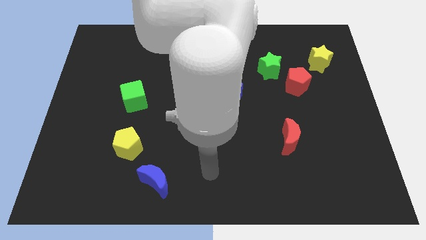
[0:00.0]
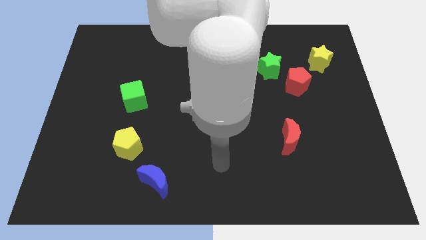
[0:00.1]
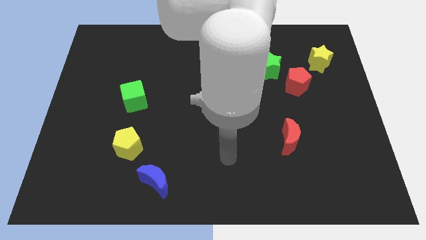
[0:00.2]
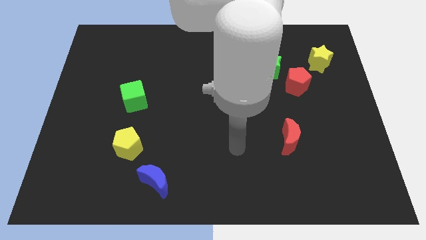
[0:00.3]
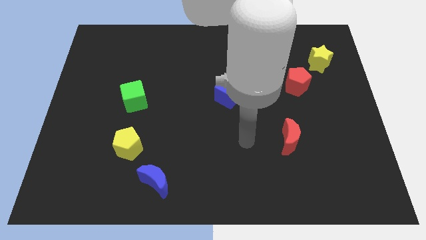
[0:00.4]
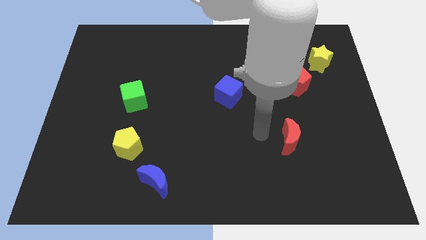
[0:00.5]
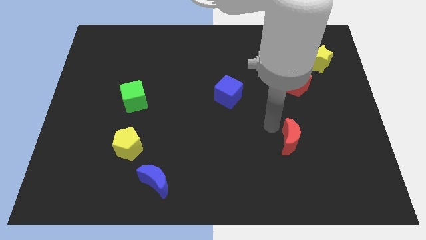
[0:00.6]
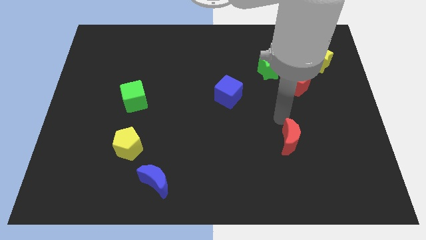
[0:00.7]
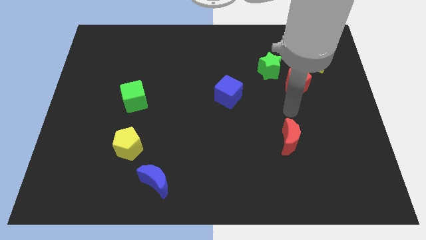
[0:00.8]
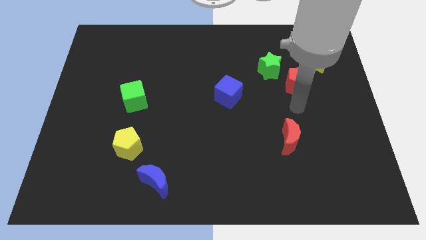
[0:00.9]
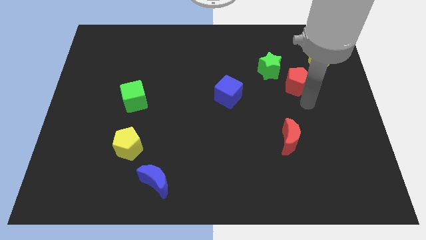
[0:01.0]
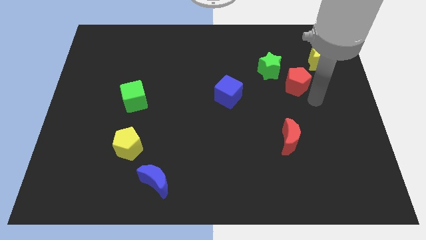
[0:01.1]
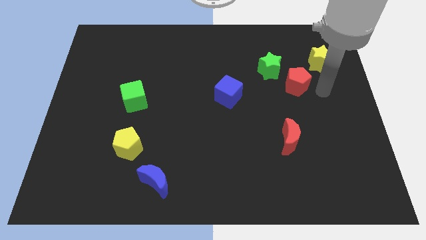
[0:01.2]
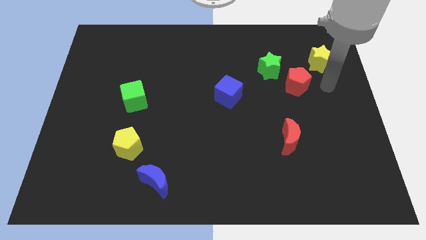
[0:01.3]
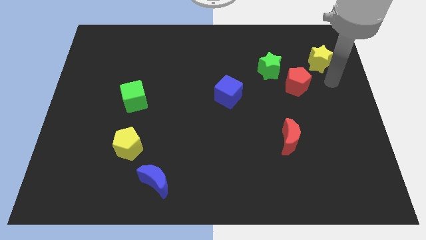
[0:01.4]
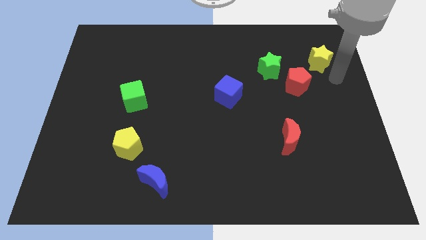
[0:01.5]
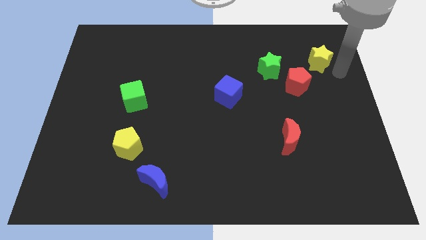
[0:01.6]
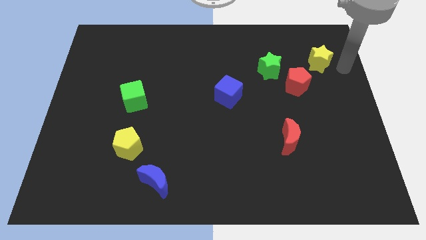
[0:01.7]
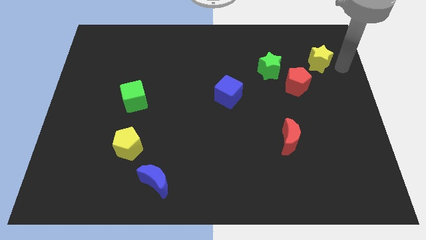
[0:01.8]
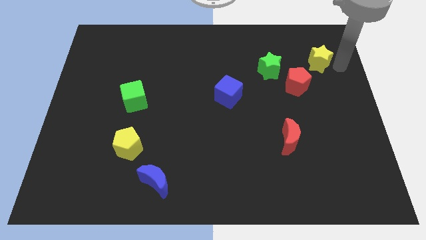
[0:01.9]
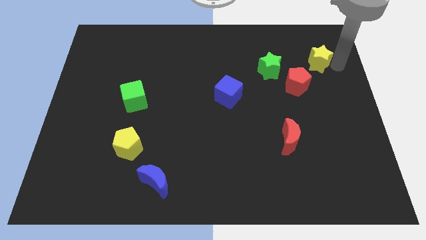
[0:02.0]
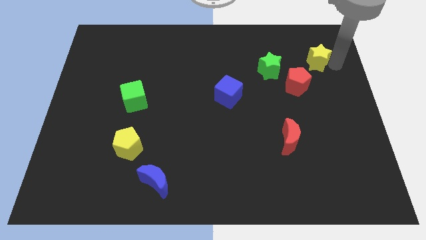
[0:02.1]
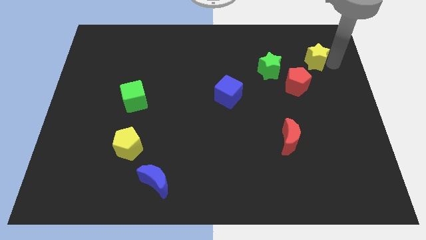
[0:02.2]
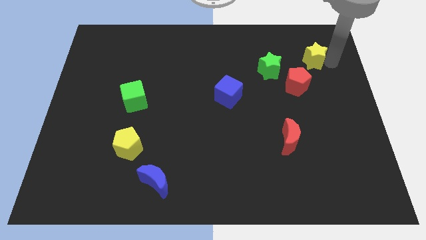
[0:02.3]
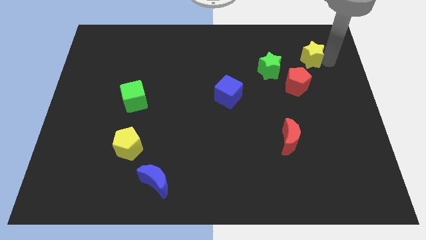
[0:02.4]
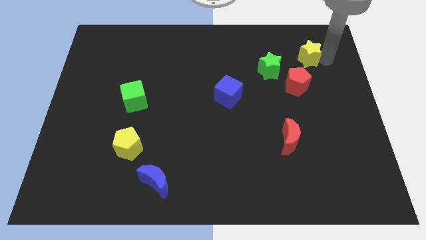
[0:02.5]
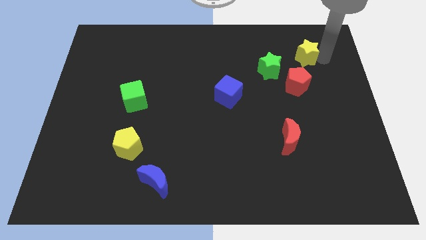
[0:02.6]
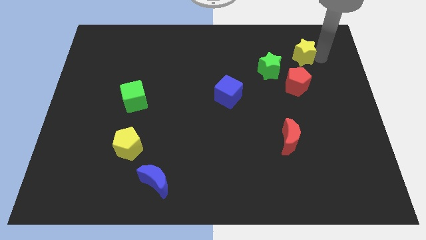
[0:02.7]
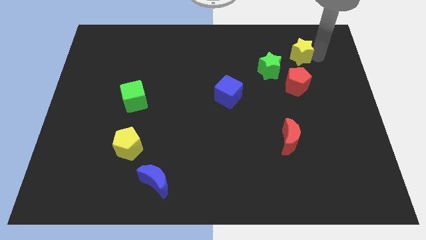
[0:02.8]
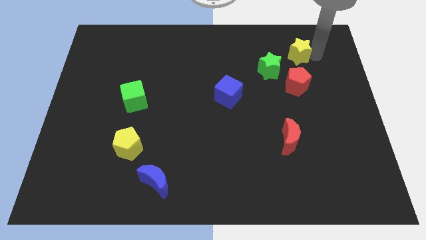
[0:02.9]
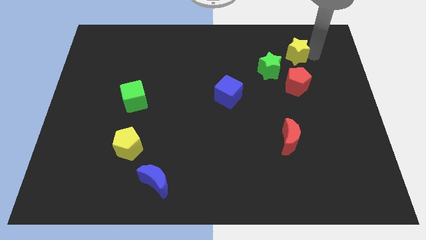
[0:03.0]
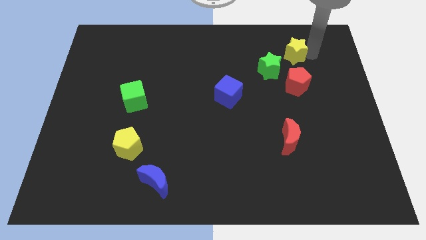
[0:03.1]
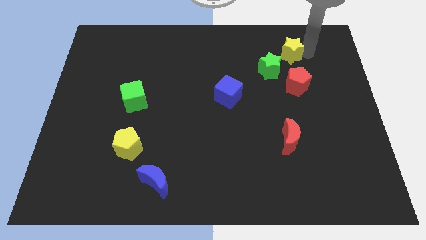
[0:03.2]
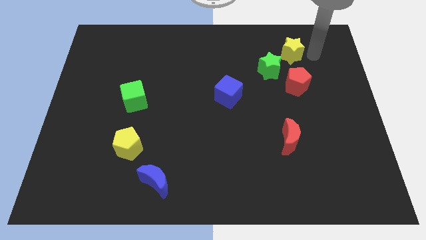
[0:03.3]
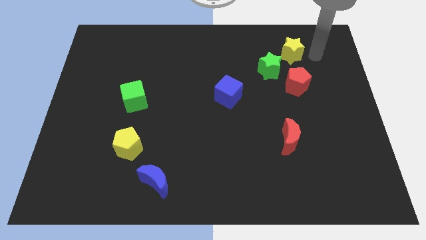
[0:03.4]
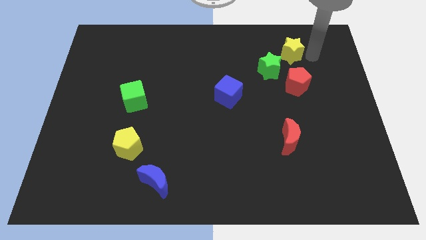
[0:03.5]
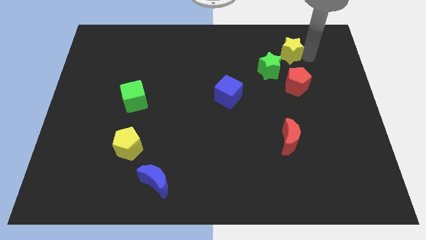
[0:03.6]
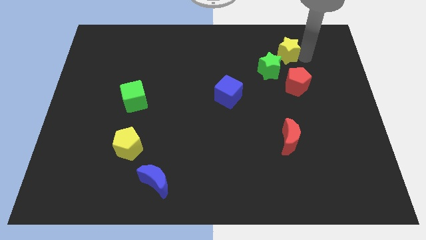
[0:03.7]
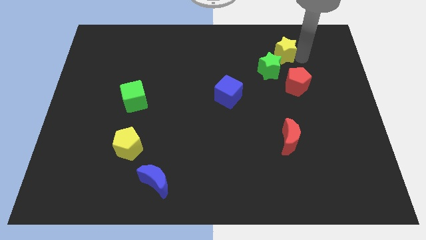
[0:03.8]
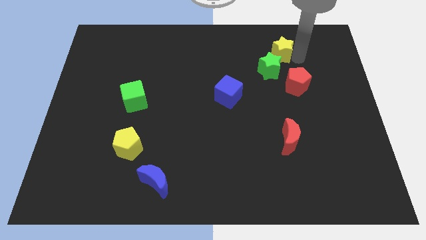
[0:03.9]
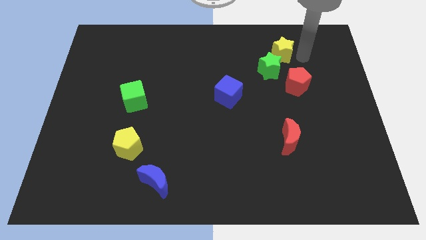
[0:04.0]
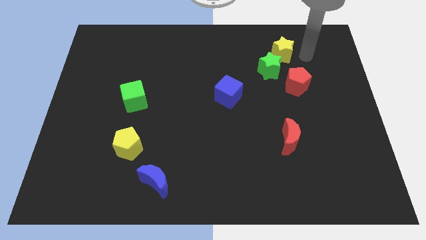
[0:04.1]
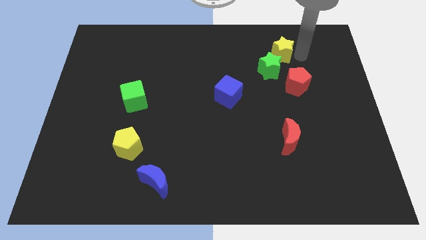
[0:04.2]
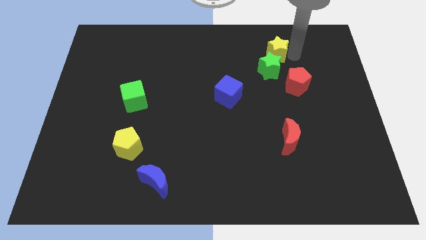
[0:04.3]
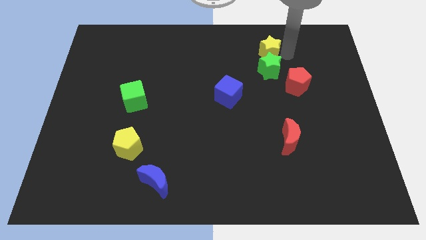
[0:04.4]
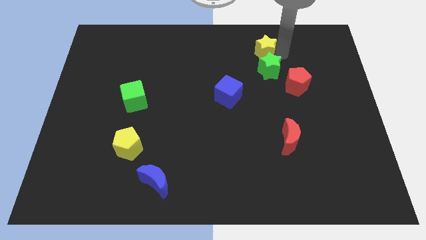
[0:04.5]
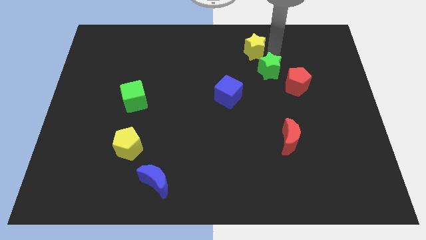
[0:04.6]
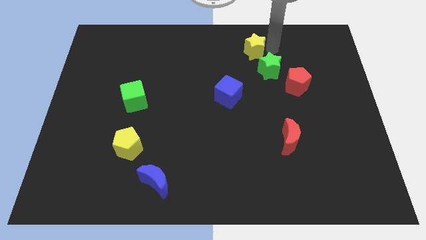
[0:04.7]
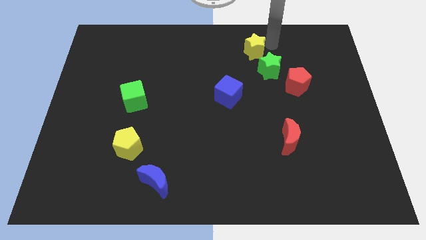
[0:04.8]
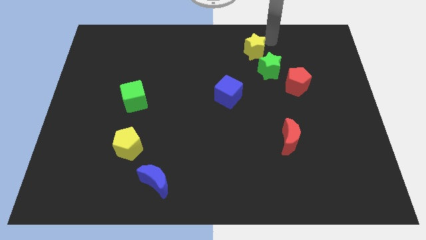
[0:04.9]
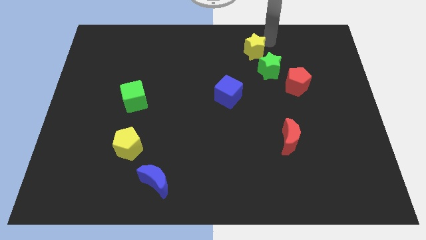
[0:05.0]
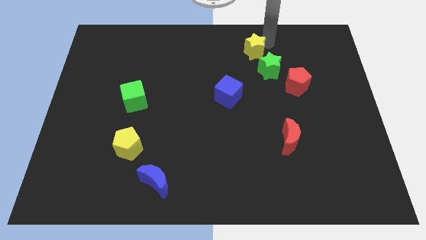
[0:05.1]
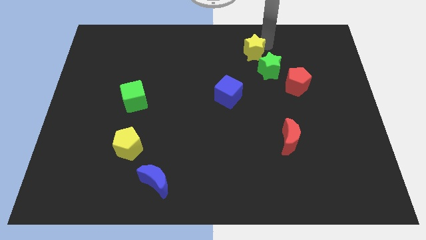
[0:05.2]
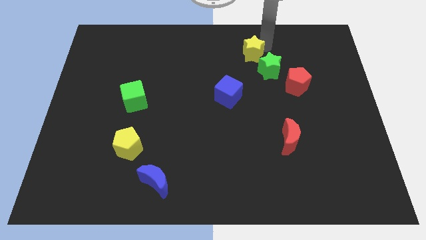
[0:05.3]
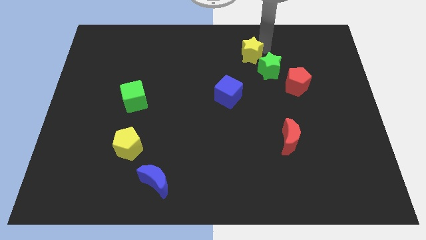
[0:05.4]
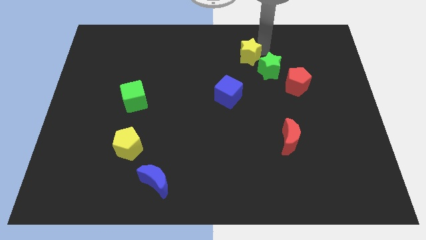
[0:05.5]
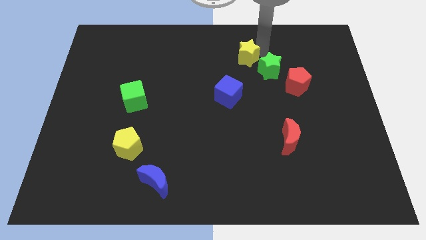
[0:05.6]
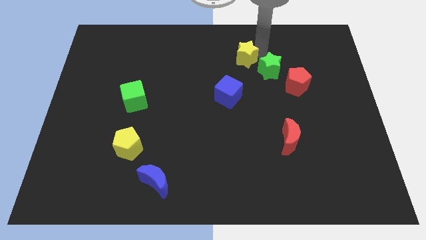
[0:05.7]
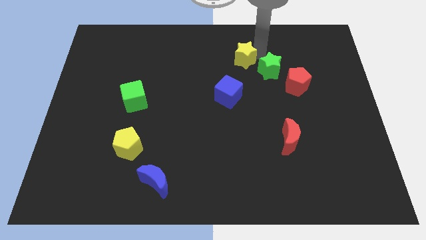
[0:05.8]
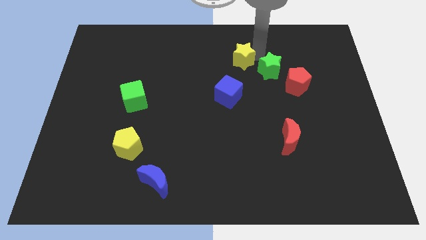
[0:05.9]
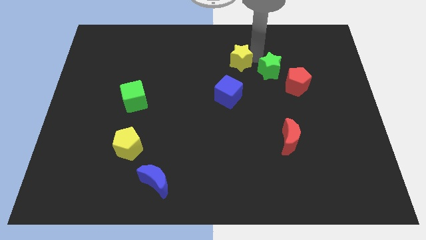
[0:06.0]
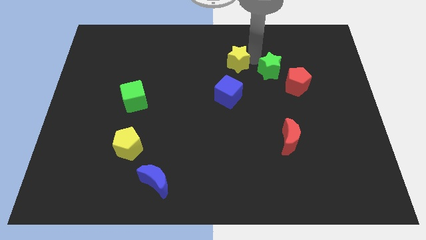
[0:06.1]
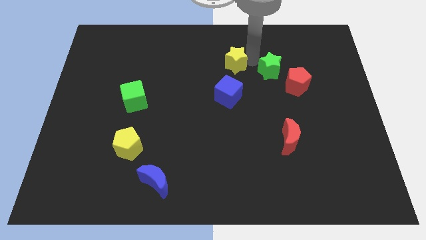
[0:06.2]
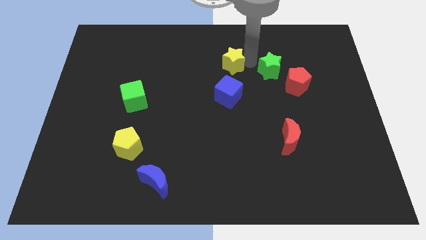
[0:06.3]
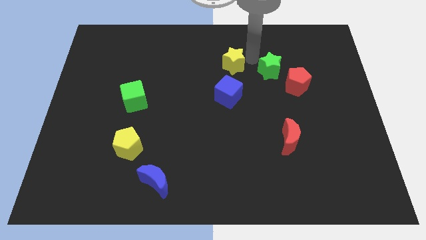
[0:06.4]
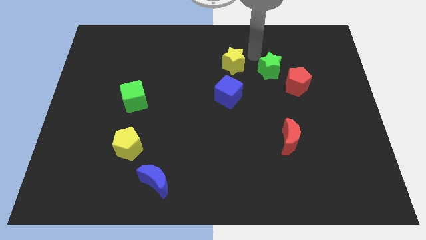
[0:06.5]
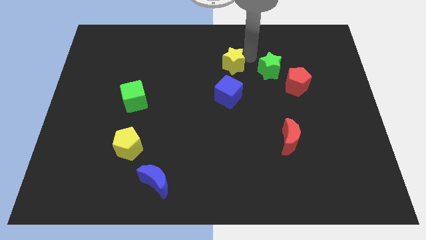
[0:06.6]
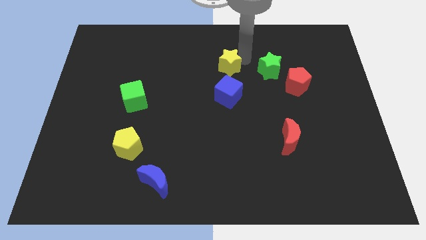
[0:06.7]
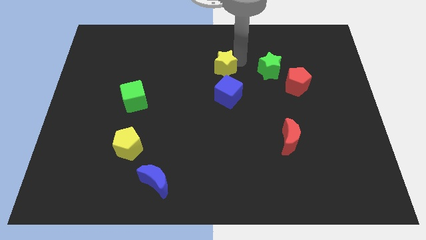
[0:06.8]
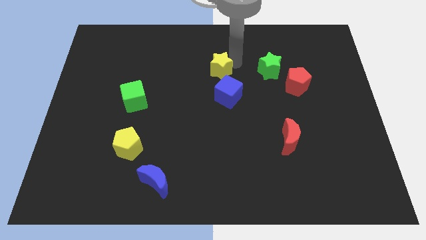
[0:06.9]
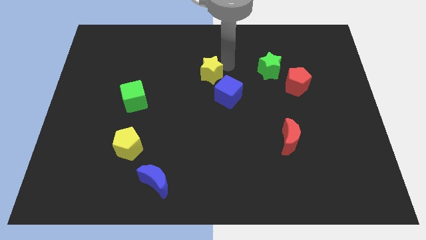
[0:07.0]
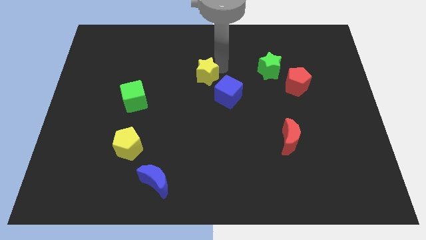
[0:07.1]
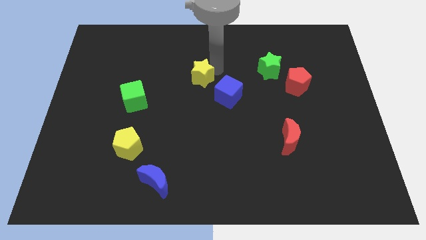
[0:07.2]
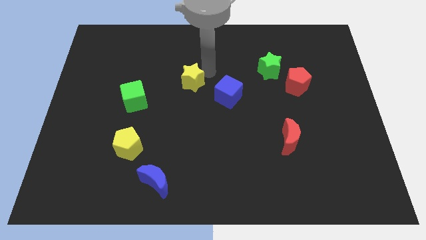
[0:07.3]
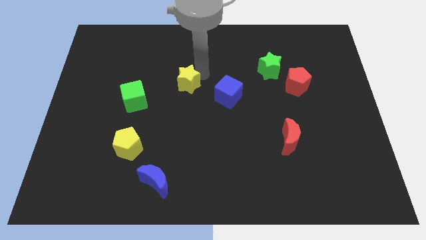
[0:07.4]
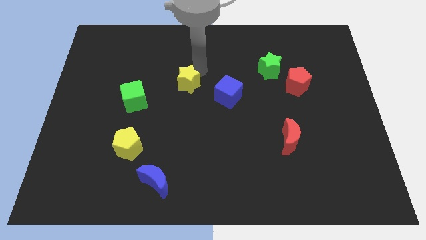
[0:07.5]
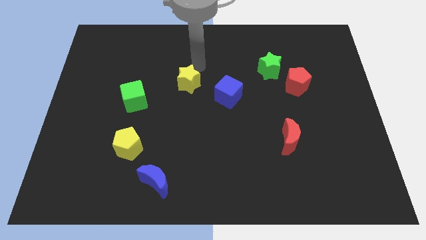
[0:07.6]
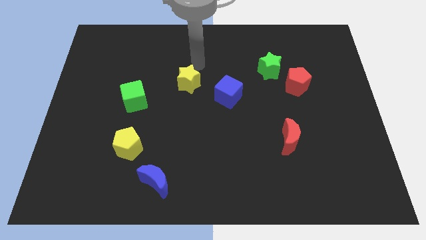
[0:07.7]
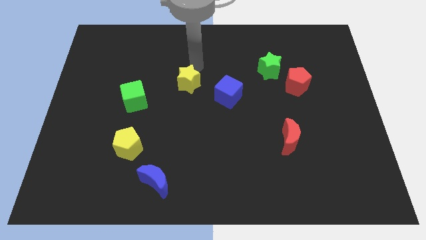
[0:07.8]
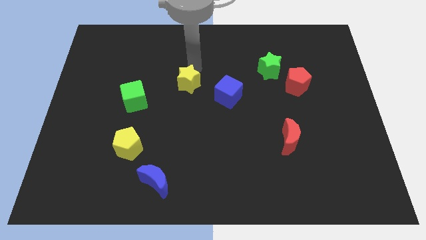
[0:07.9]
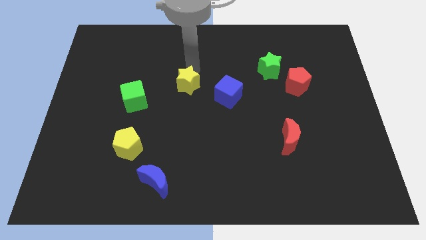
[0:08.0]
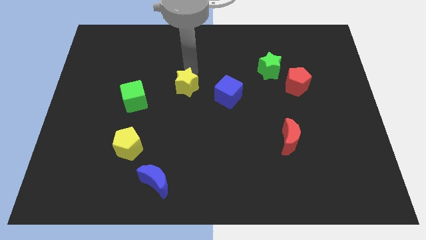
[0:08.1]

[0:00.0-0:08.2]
push the yellow star just right of the green cube
